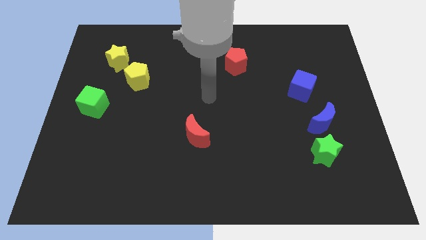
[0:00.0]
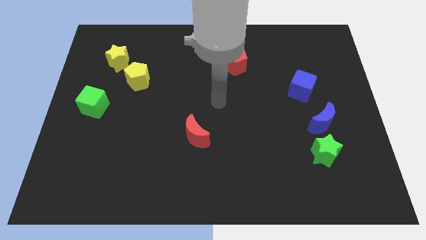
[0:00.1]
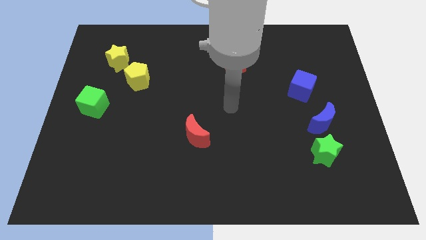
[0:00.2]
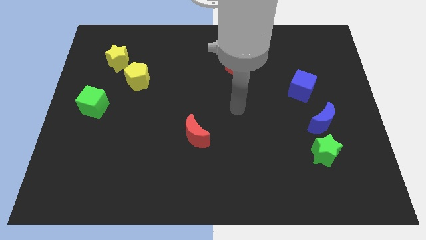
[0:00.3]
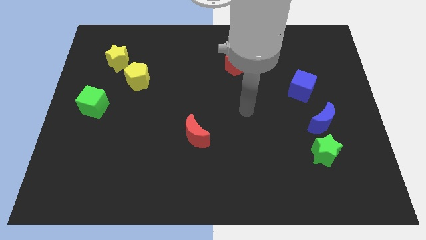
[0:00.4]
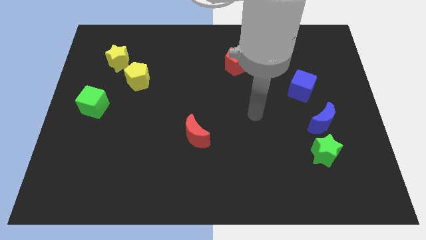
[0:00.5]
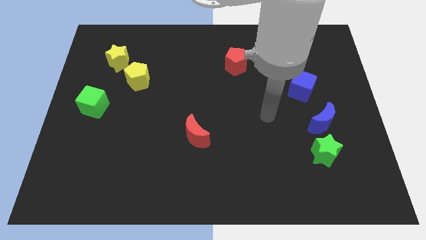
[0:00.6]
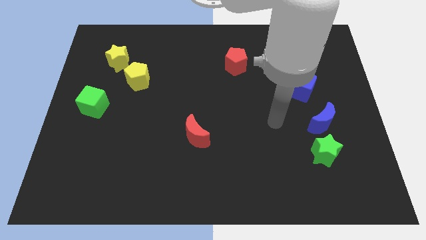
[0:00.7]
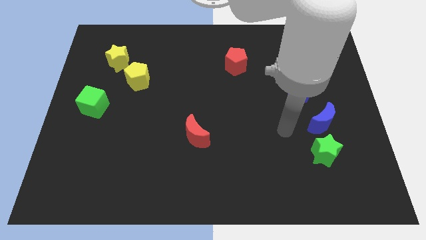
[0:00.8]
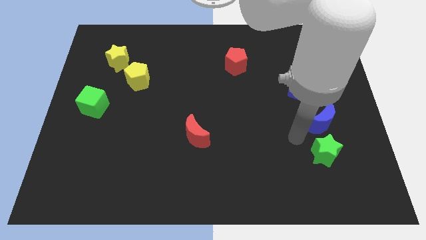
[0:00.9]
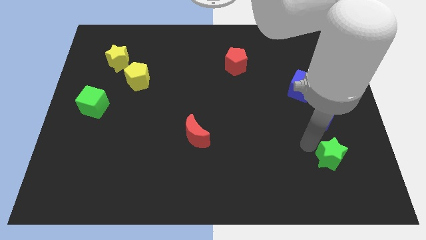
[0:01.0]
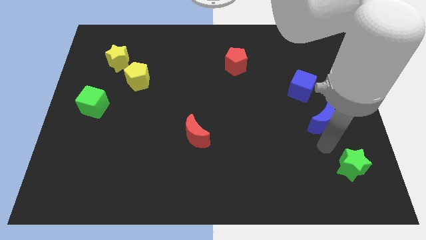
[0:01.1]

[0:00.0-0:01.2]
separate the blue moon from the green star

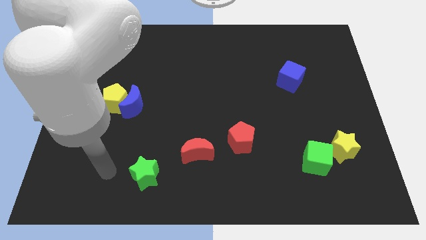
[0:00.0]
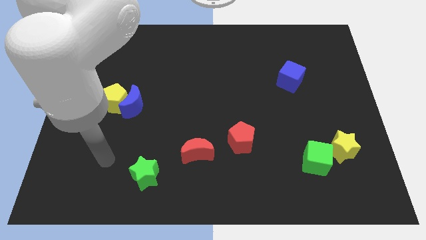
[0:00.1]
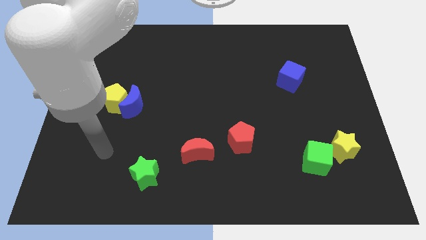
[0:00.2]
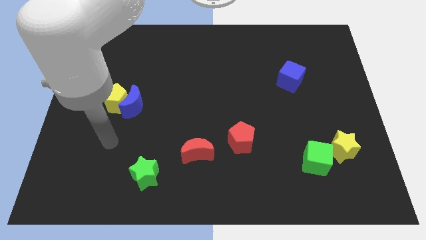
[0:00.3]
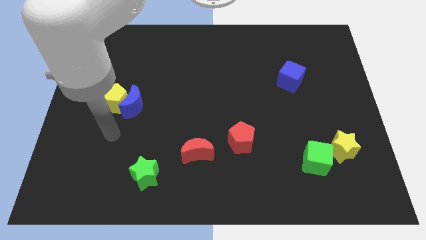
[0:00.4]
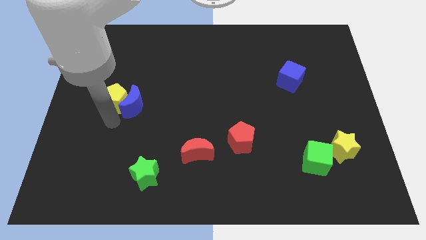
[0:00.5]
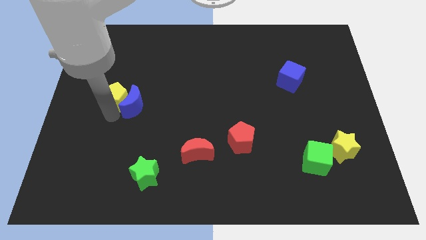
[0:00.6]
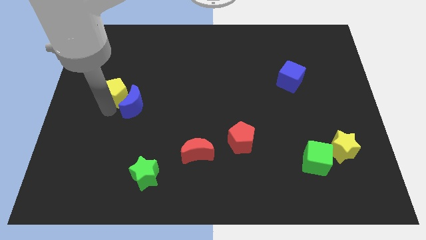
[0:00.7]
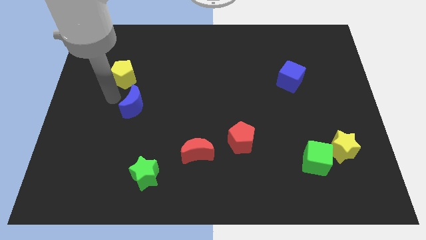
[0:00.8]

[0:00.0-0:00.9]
move the blue moon away from the yellow pentagon

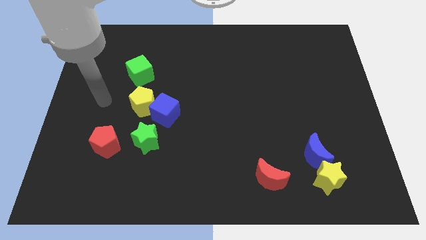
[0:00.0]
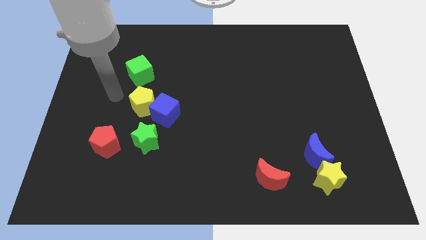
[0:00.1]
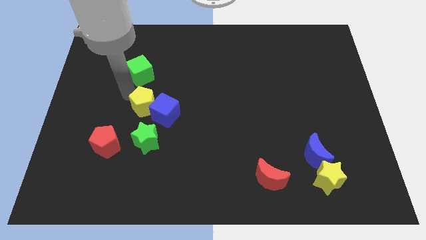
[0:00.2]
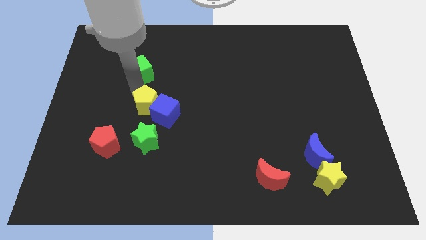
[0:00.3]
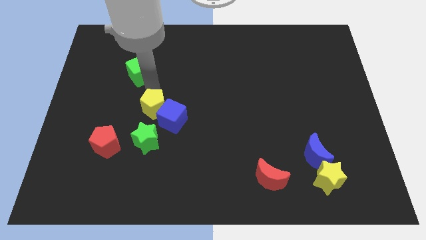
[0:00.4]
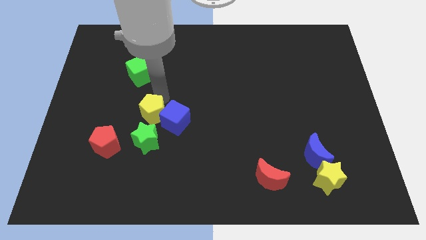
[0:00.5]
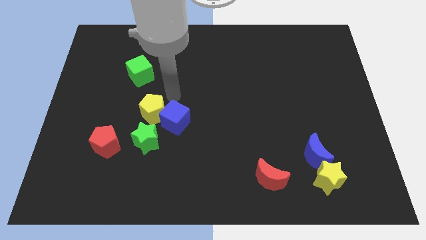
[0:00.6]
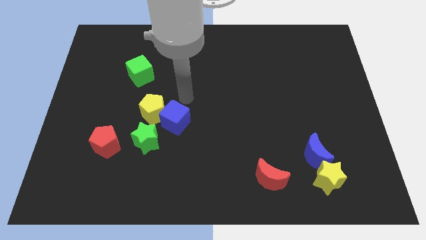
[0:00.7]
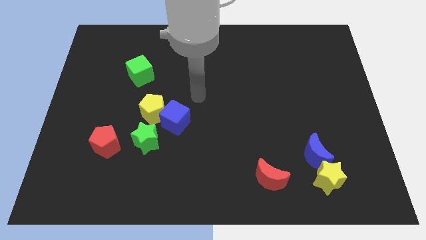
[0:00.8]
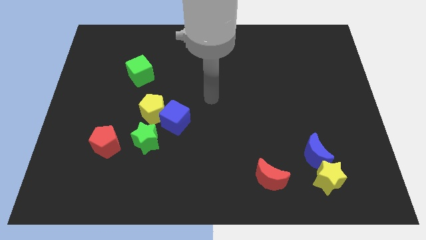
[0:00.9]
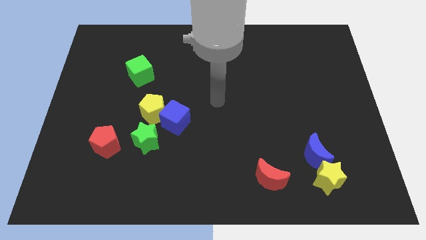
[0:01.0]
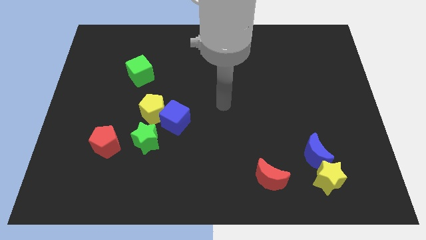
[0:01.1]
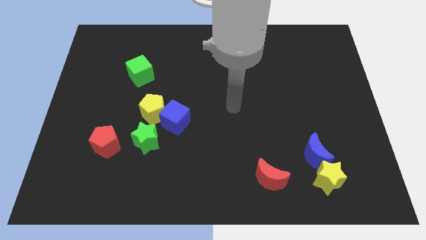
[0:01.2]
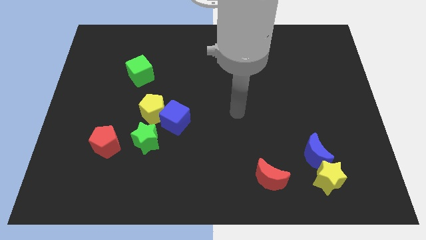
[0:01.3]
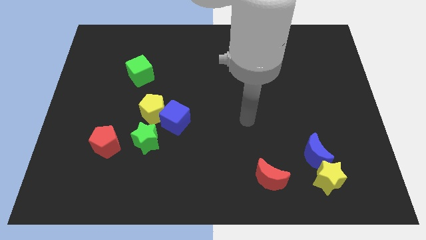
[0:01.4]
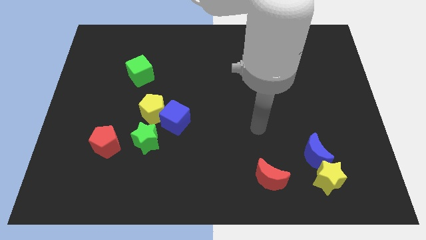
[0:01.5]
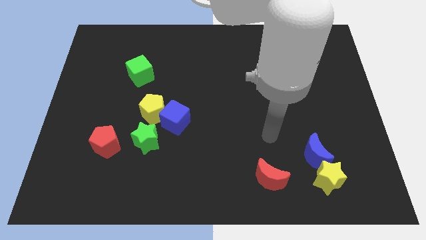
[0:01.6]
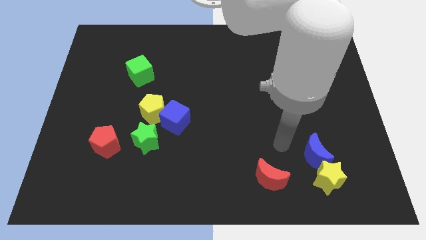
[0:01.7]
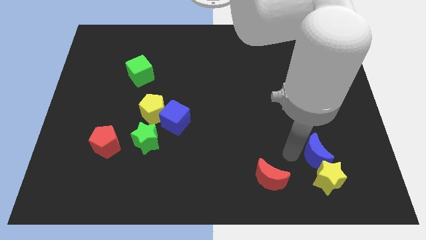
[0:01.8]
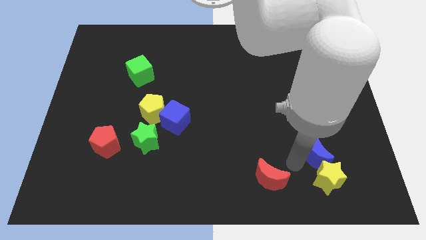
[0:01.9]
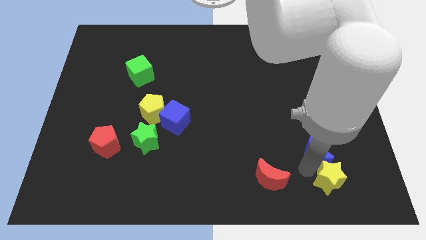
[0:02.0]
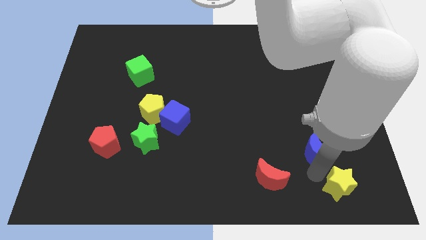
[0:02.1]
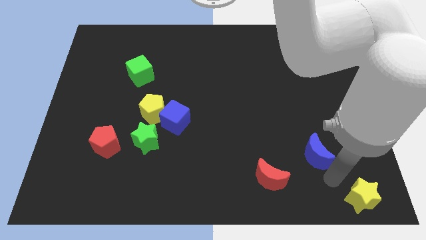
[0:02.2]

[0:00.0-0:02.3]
move the blue moon away from the yellow star

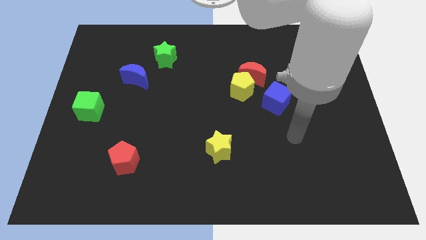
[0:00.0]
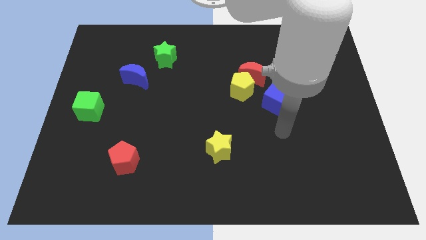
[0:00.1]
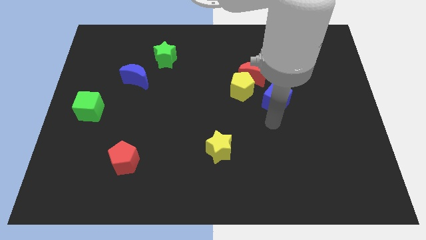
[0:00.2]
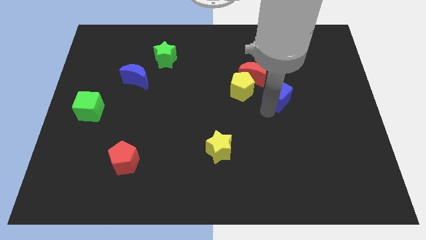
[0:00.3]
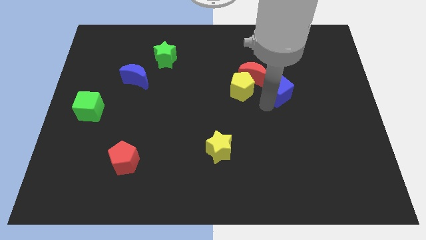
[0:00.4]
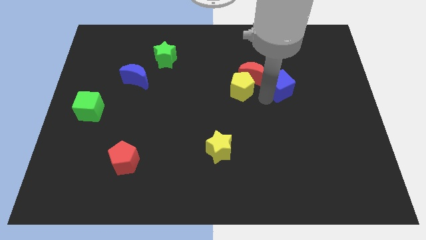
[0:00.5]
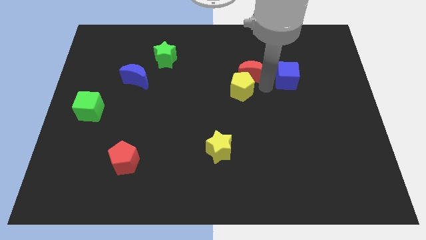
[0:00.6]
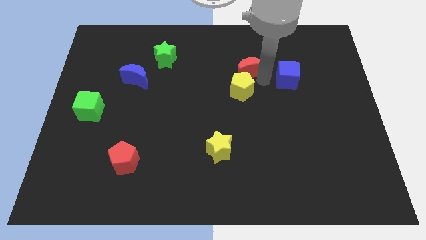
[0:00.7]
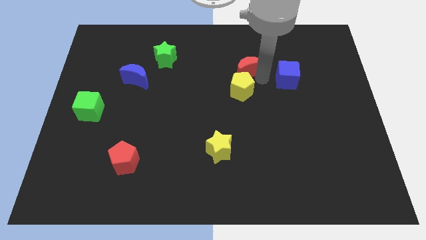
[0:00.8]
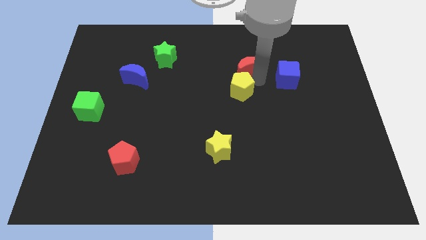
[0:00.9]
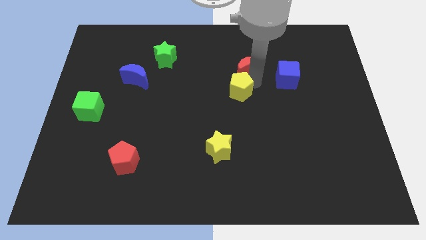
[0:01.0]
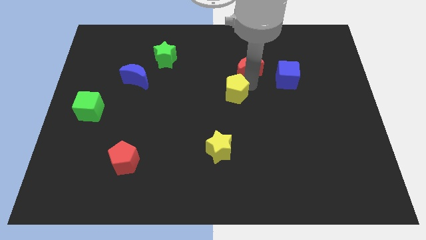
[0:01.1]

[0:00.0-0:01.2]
separate the yellow pentagon from the red moon and blue cube

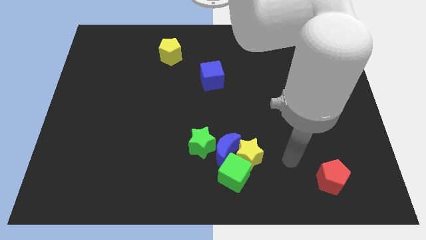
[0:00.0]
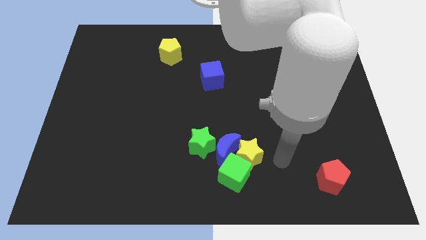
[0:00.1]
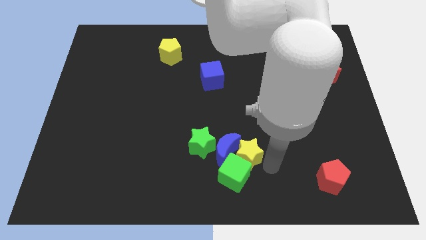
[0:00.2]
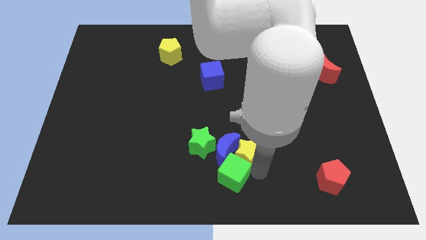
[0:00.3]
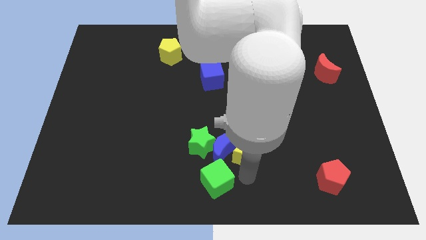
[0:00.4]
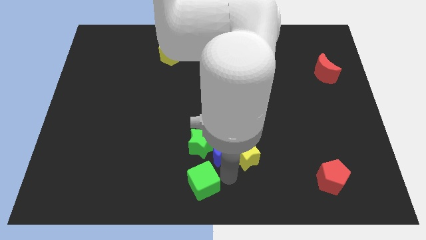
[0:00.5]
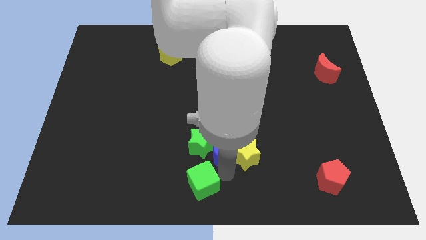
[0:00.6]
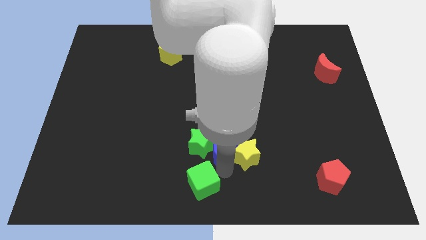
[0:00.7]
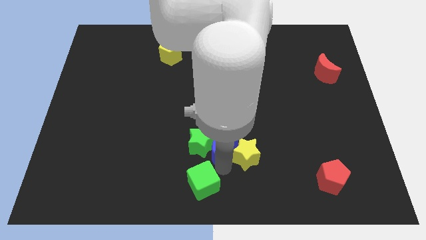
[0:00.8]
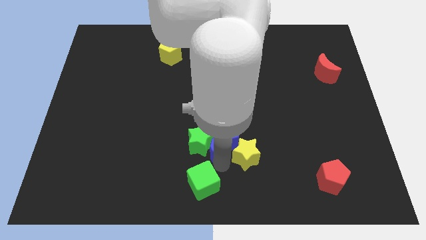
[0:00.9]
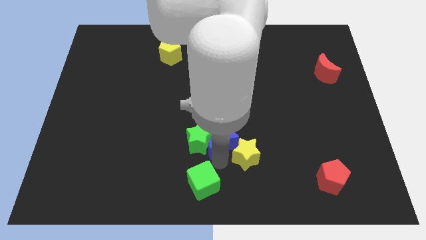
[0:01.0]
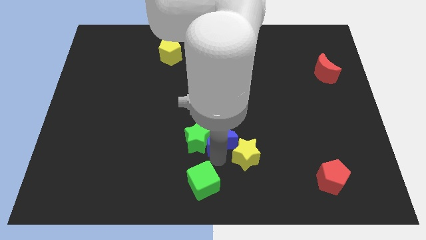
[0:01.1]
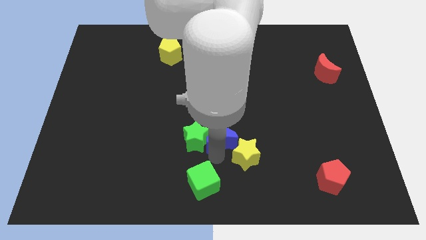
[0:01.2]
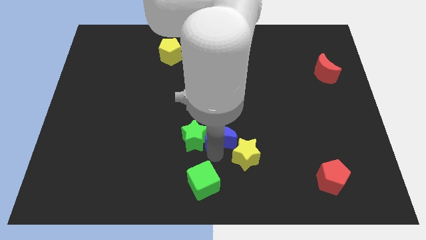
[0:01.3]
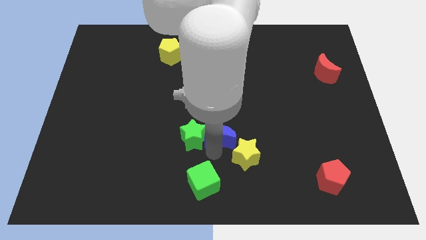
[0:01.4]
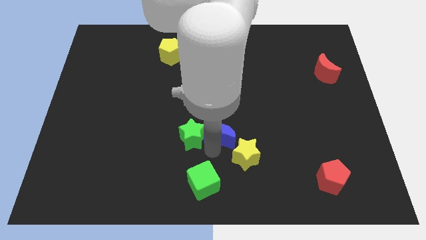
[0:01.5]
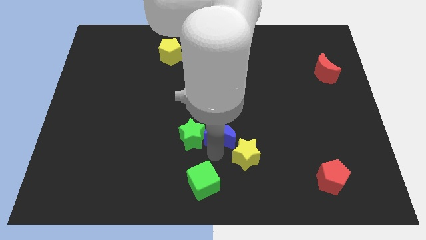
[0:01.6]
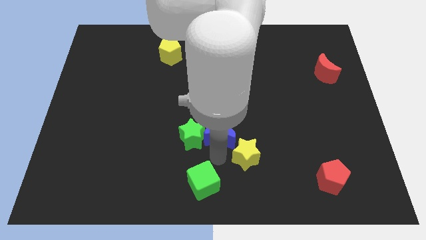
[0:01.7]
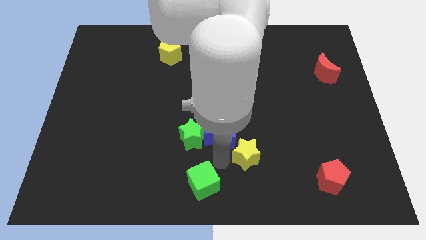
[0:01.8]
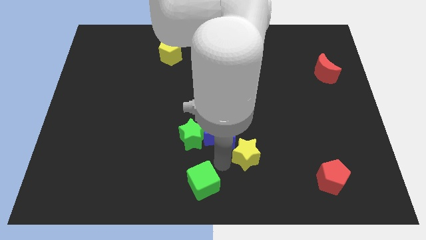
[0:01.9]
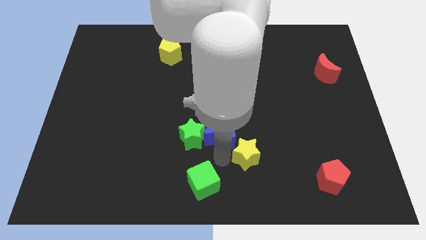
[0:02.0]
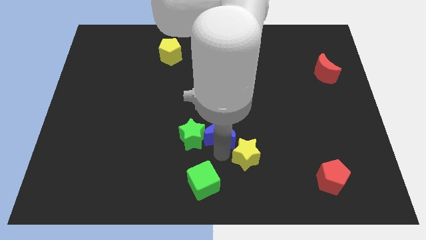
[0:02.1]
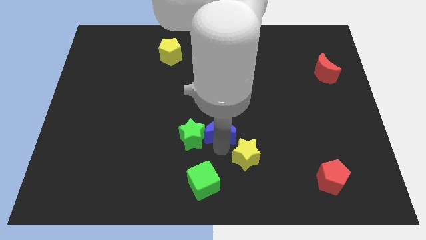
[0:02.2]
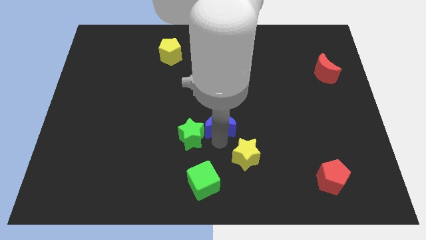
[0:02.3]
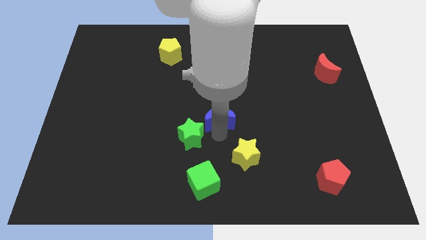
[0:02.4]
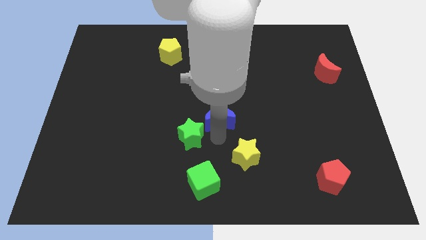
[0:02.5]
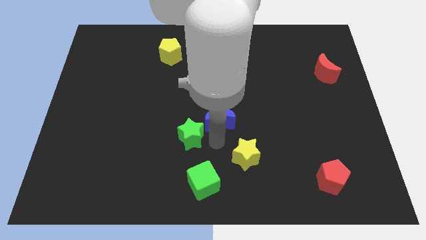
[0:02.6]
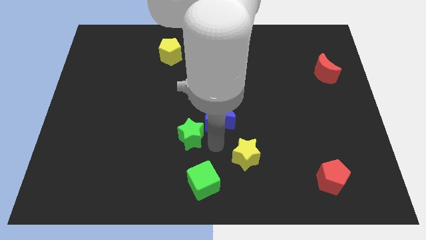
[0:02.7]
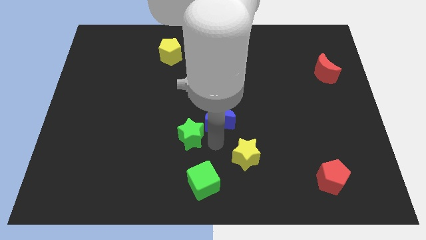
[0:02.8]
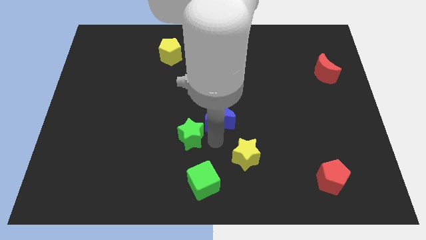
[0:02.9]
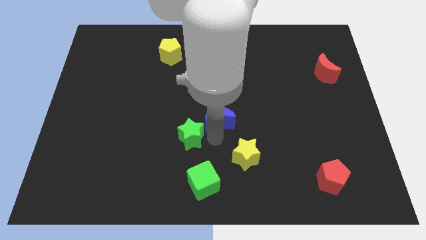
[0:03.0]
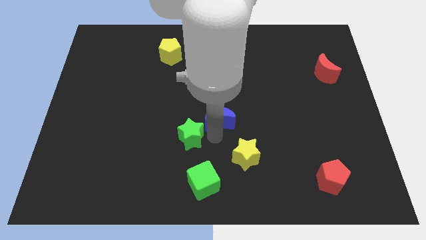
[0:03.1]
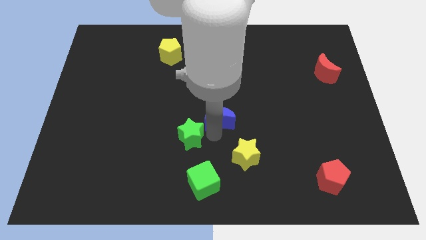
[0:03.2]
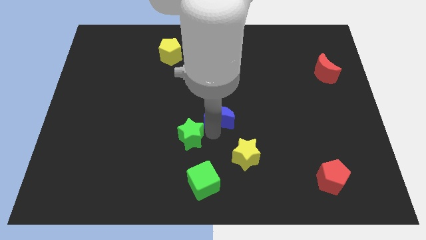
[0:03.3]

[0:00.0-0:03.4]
separate the blue moon from the clump

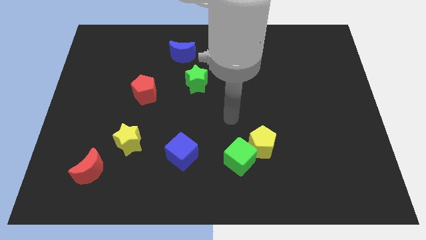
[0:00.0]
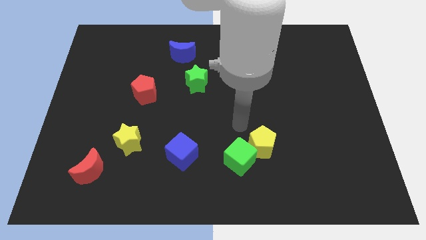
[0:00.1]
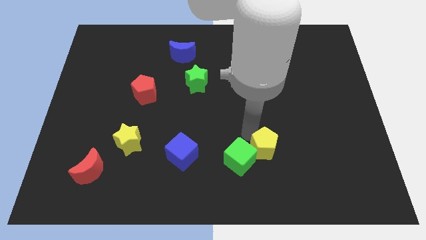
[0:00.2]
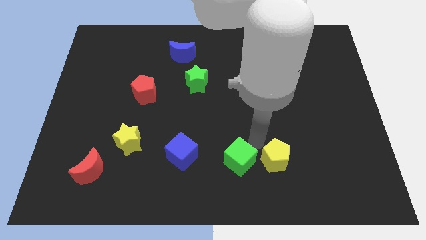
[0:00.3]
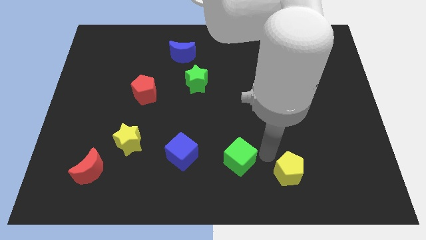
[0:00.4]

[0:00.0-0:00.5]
move the green cube away from the yellow pentagon

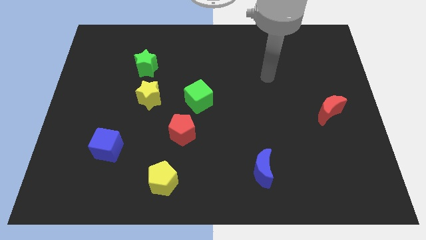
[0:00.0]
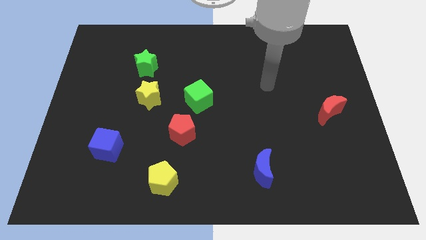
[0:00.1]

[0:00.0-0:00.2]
move the red pentagon away from the green cube
